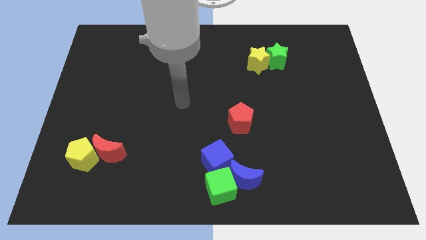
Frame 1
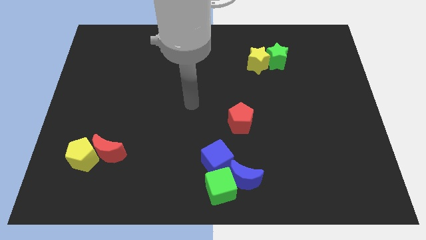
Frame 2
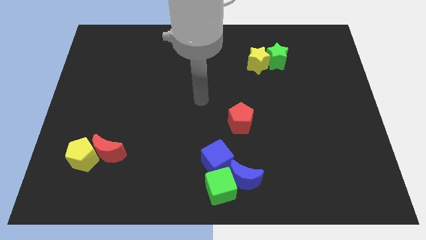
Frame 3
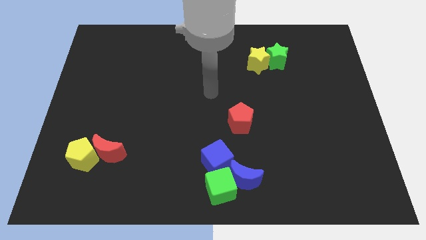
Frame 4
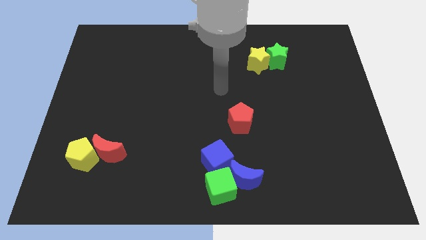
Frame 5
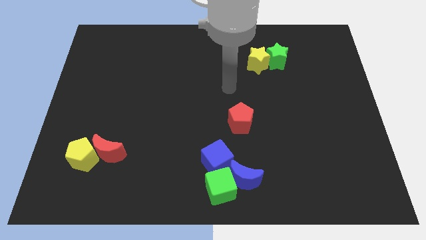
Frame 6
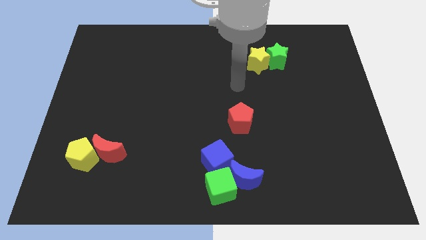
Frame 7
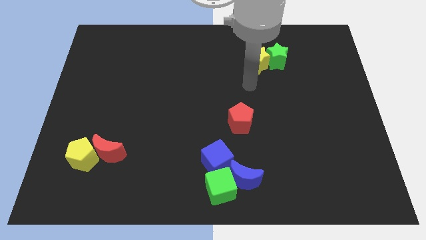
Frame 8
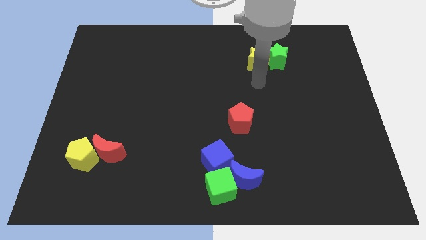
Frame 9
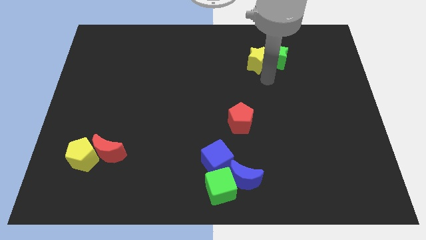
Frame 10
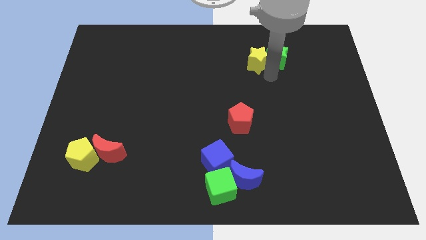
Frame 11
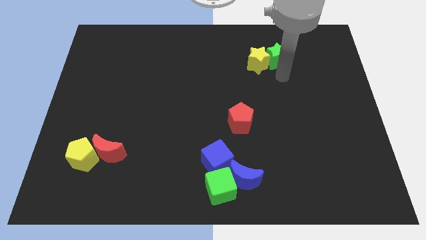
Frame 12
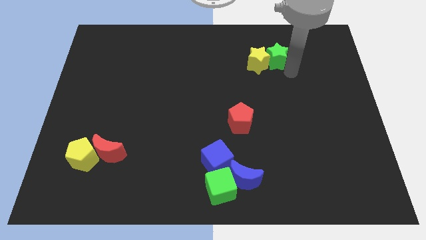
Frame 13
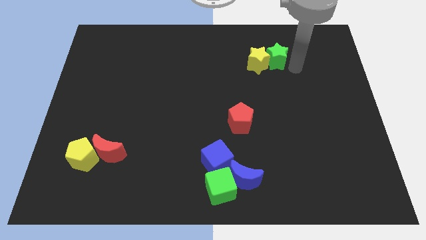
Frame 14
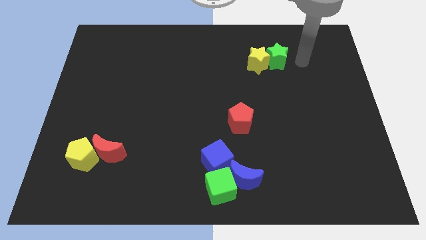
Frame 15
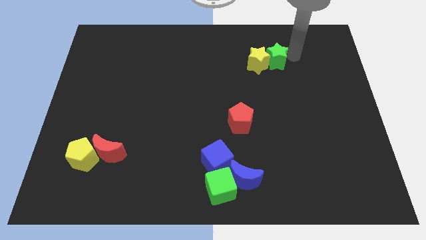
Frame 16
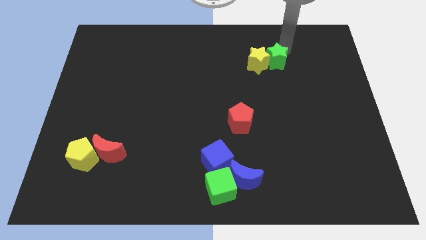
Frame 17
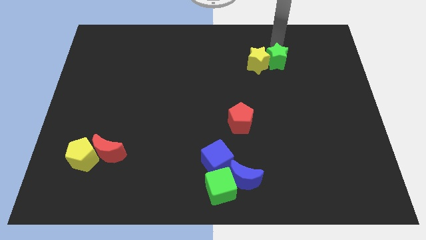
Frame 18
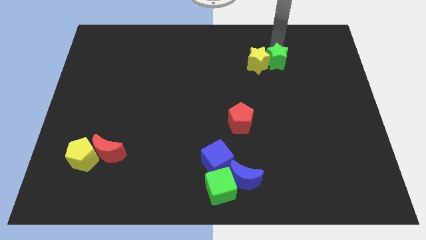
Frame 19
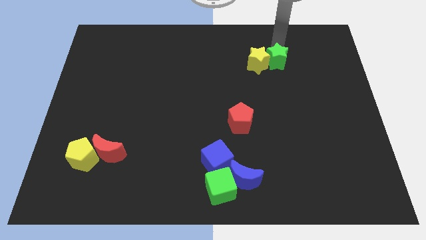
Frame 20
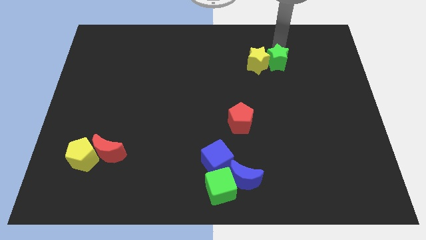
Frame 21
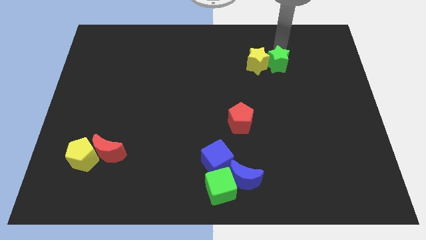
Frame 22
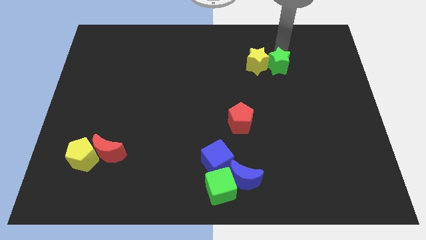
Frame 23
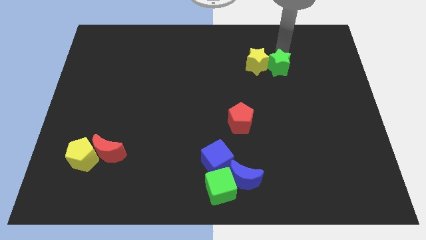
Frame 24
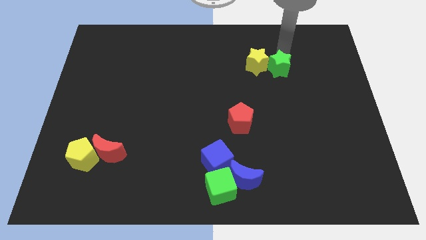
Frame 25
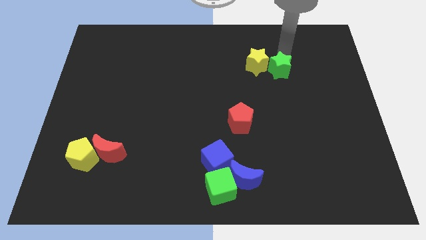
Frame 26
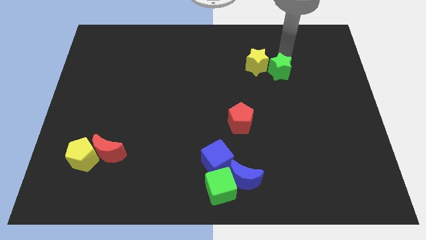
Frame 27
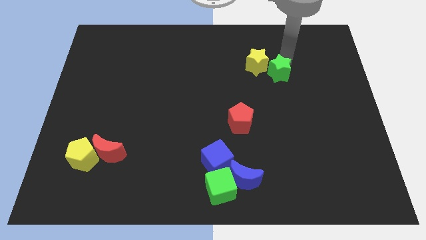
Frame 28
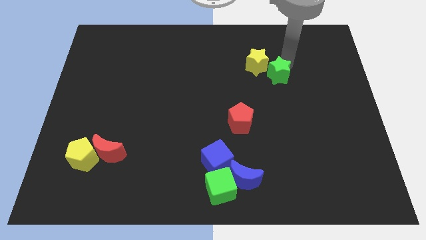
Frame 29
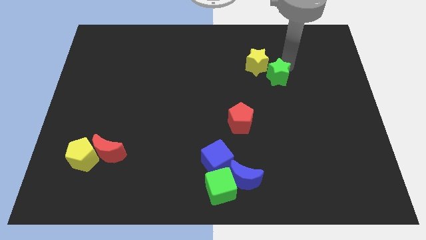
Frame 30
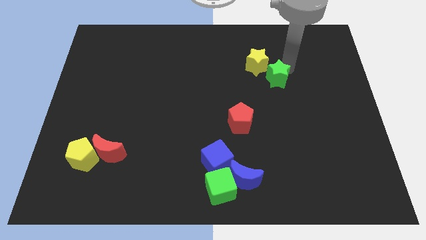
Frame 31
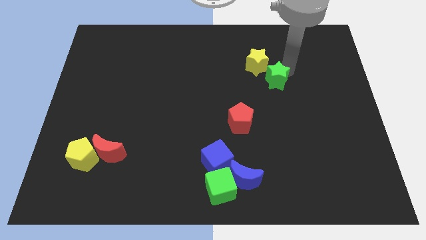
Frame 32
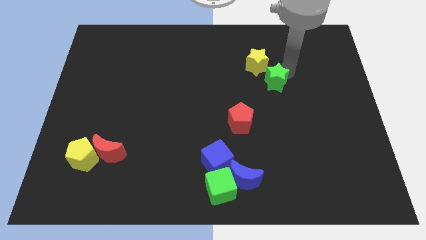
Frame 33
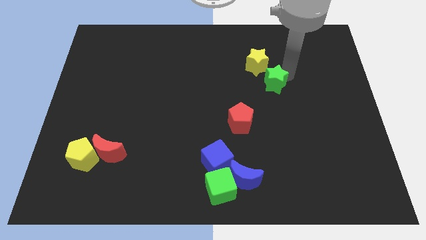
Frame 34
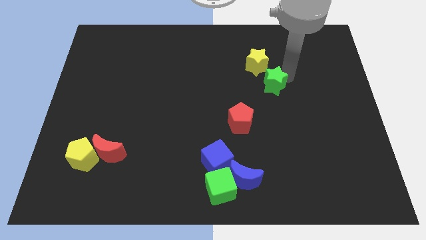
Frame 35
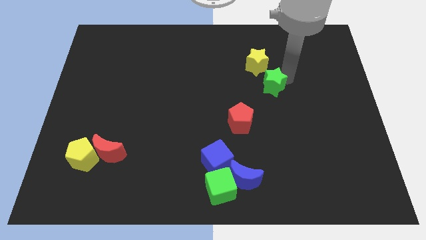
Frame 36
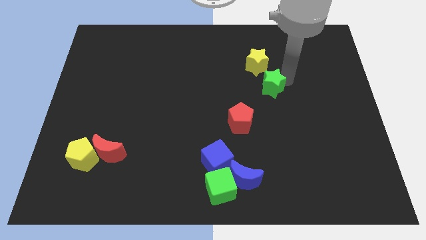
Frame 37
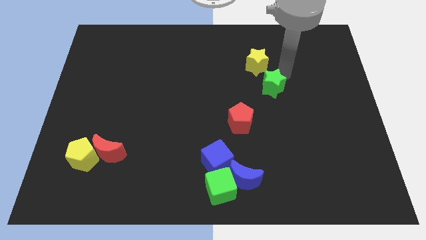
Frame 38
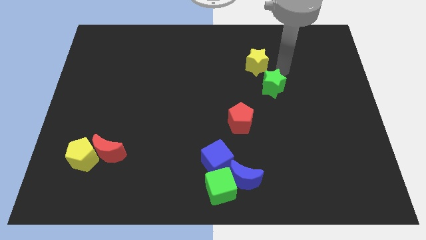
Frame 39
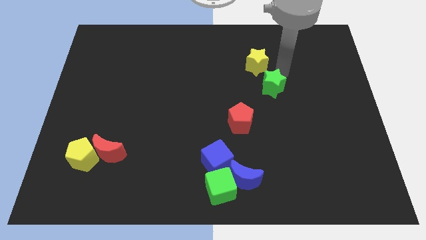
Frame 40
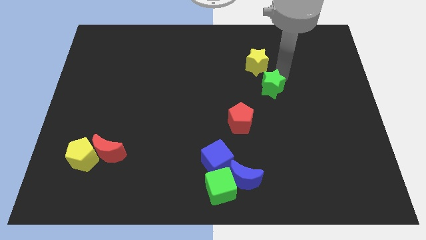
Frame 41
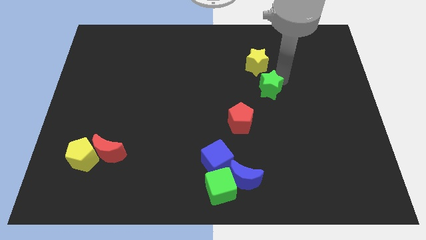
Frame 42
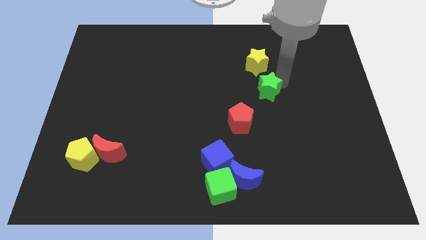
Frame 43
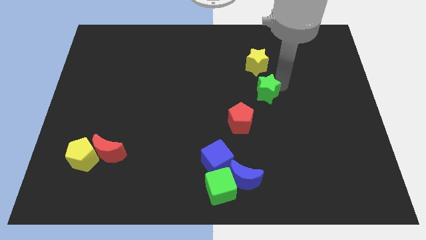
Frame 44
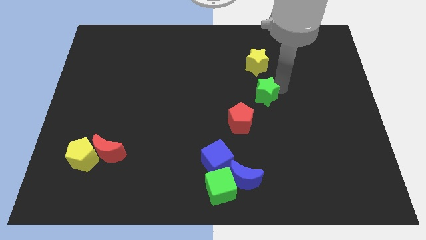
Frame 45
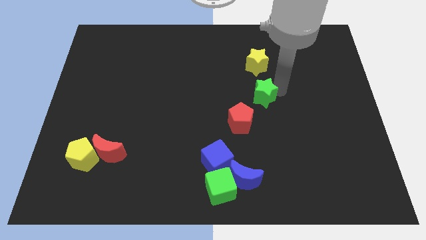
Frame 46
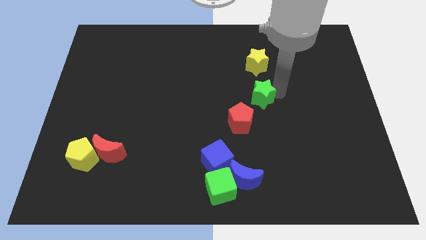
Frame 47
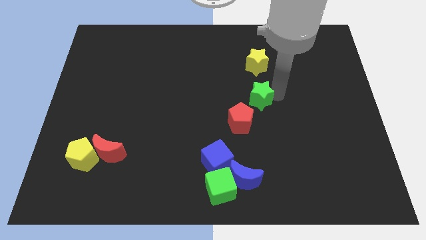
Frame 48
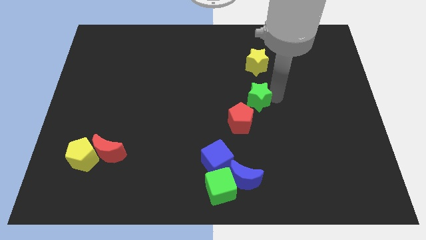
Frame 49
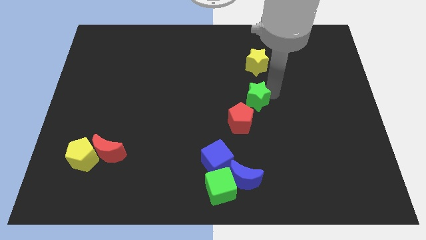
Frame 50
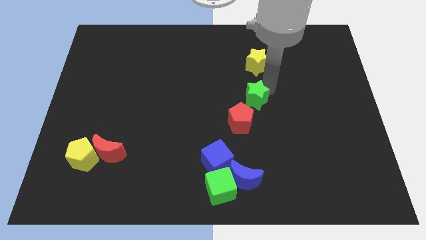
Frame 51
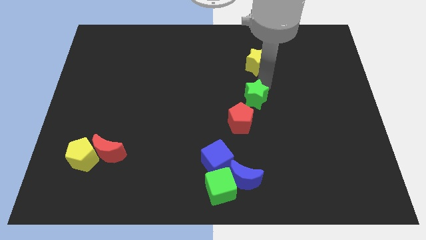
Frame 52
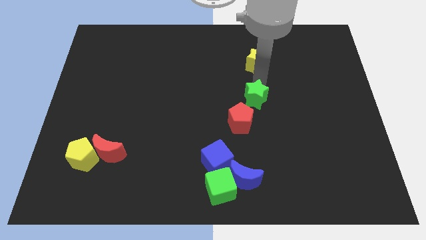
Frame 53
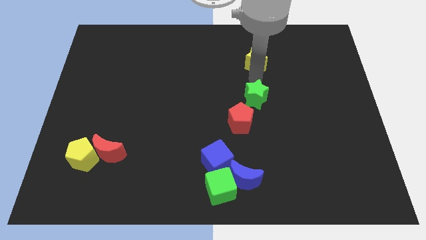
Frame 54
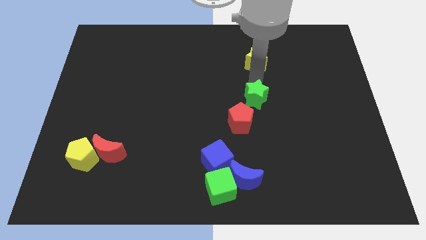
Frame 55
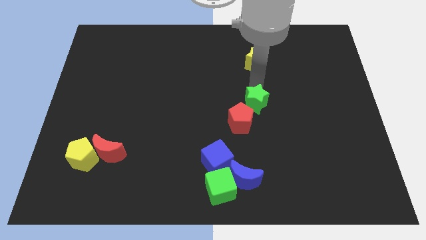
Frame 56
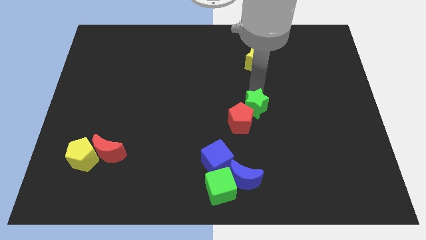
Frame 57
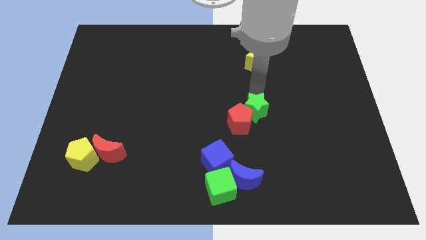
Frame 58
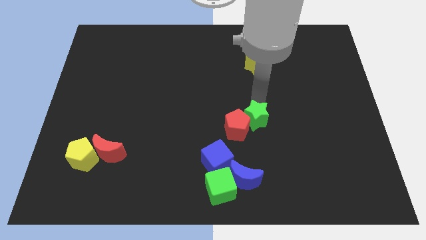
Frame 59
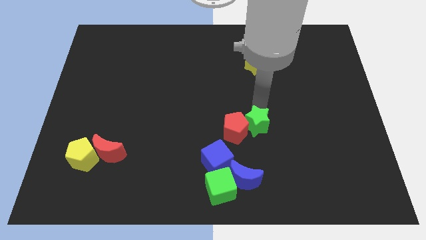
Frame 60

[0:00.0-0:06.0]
move the green star to the top side of the blue moon
